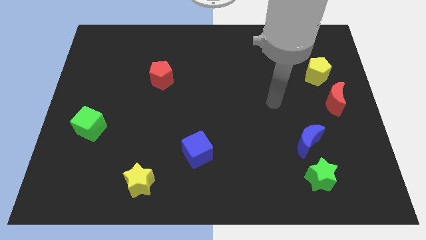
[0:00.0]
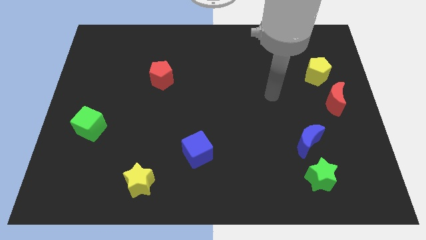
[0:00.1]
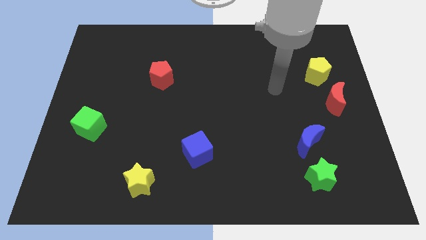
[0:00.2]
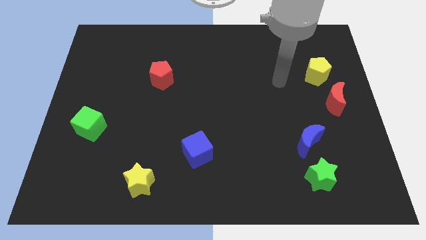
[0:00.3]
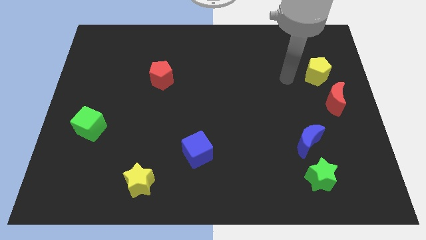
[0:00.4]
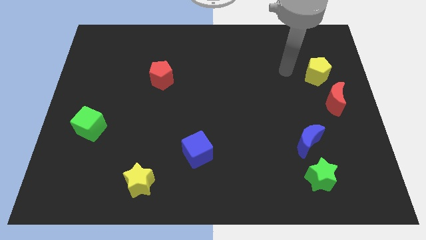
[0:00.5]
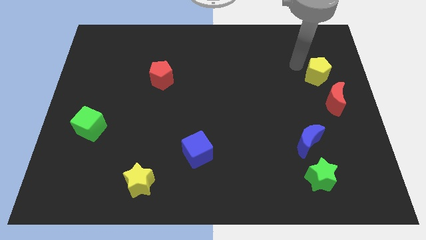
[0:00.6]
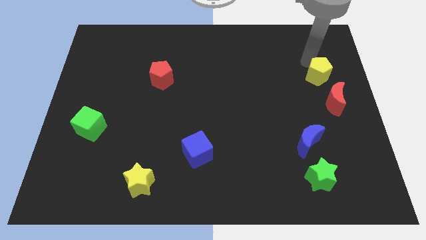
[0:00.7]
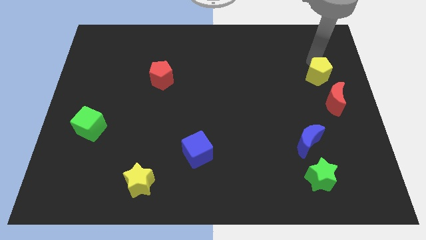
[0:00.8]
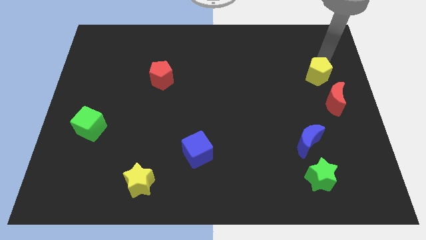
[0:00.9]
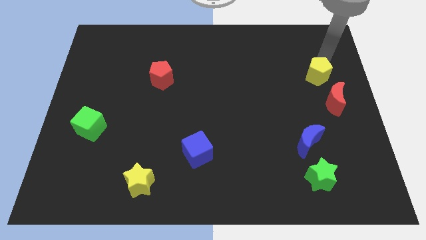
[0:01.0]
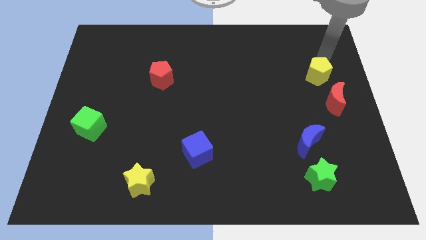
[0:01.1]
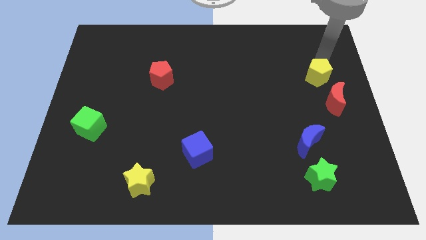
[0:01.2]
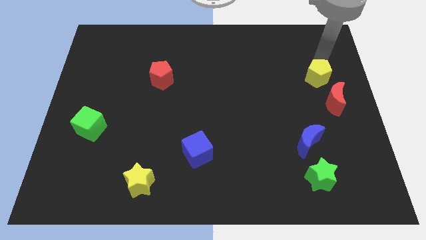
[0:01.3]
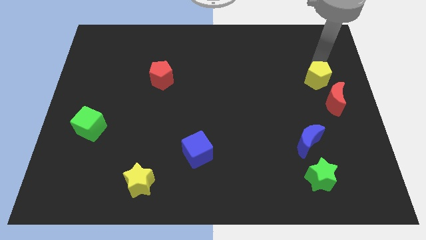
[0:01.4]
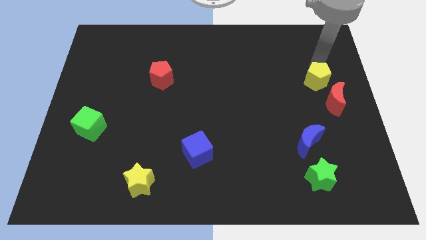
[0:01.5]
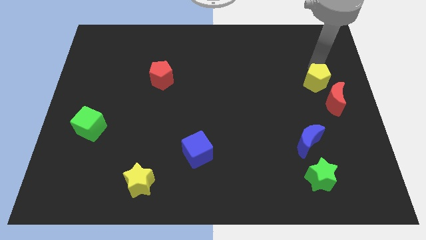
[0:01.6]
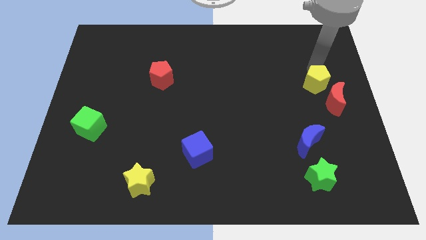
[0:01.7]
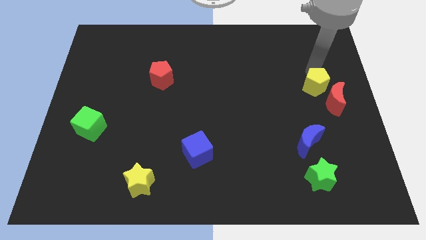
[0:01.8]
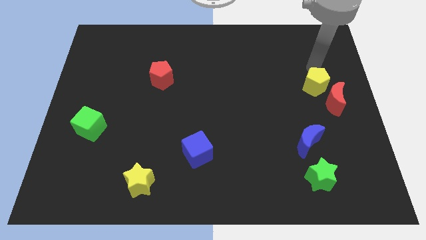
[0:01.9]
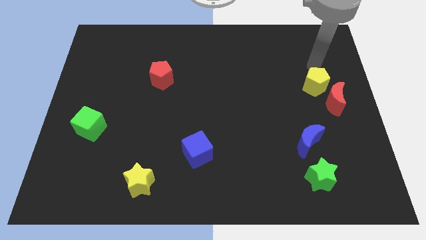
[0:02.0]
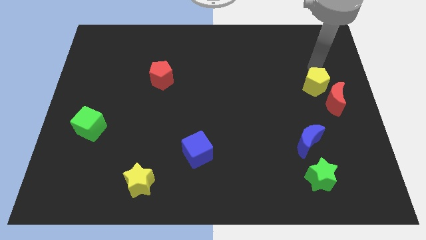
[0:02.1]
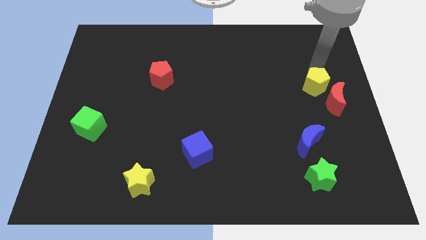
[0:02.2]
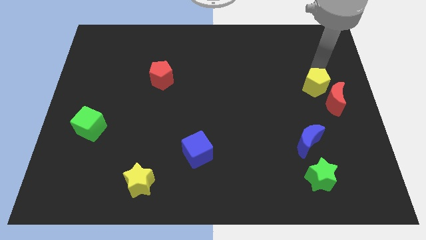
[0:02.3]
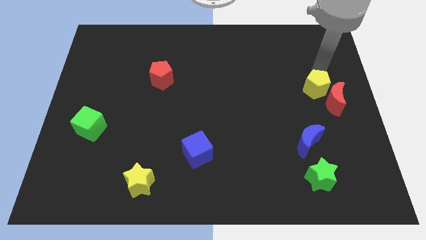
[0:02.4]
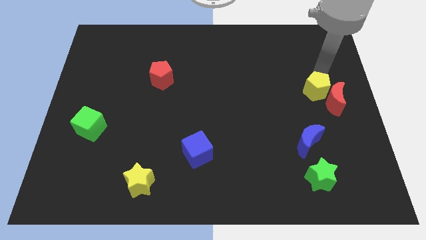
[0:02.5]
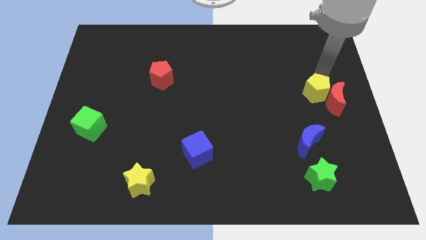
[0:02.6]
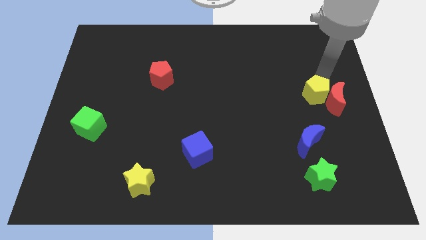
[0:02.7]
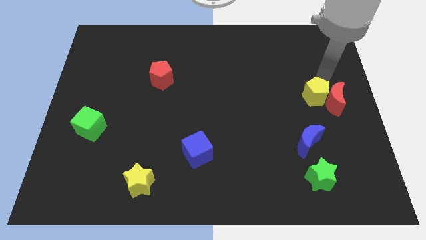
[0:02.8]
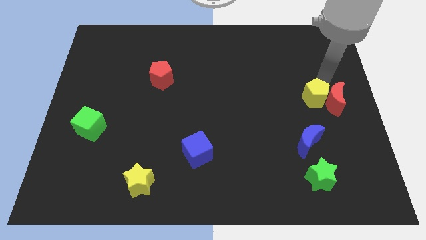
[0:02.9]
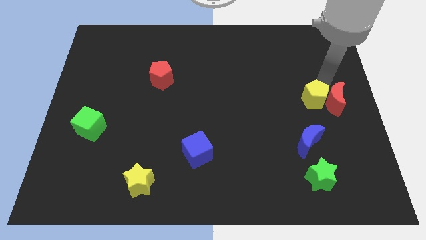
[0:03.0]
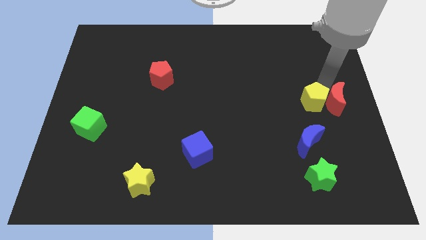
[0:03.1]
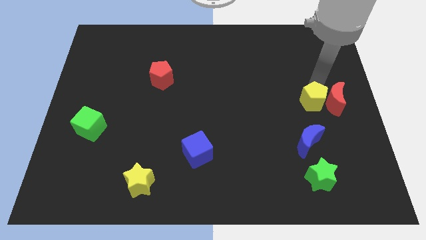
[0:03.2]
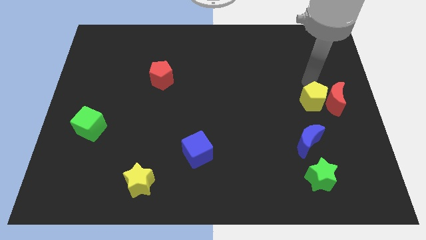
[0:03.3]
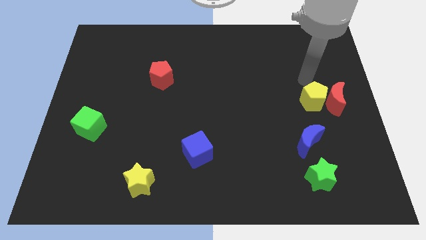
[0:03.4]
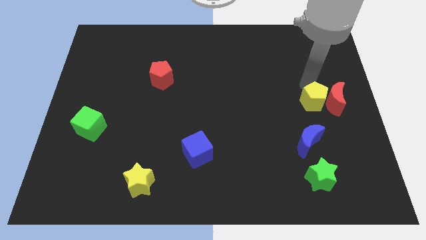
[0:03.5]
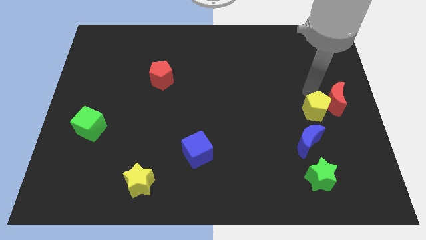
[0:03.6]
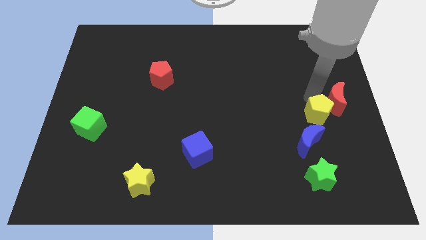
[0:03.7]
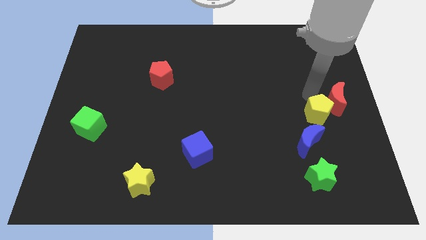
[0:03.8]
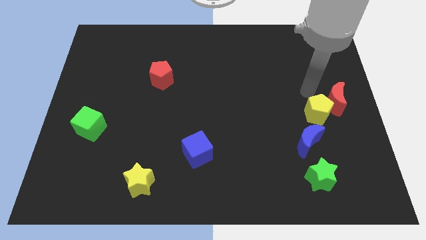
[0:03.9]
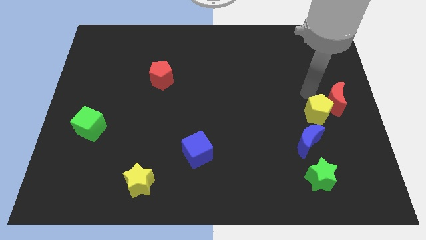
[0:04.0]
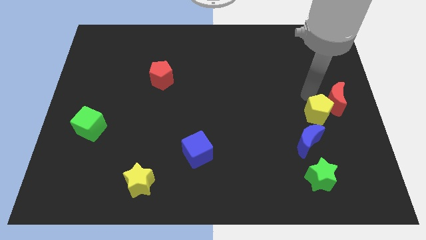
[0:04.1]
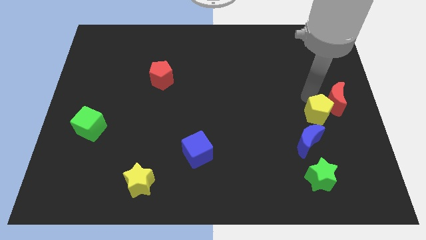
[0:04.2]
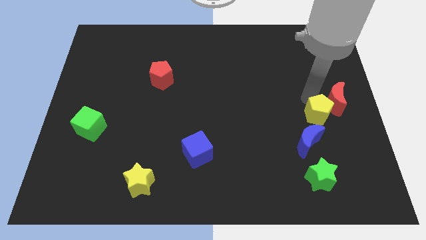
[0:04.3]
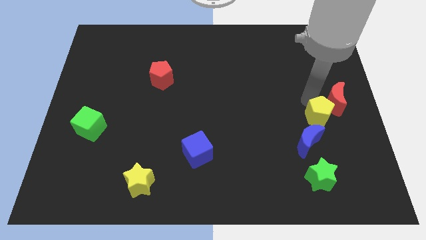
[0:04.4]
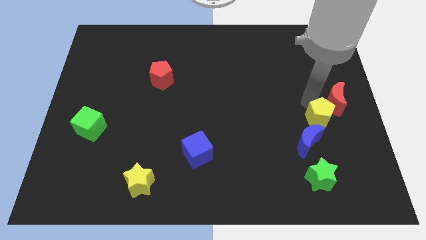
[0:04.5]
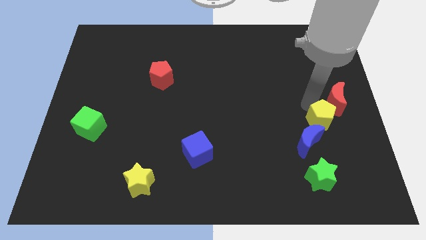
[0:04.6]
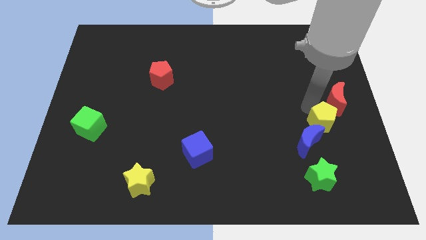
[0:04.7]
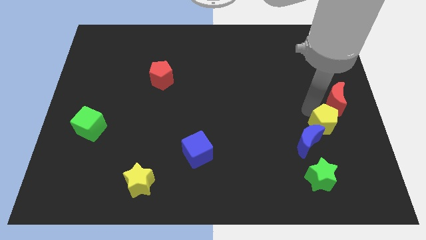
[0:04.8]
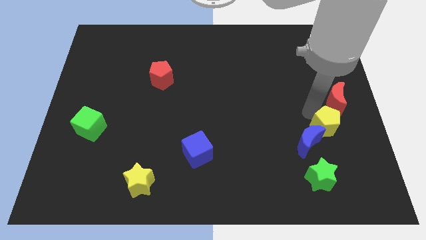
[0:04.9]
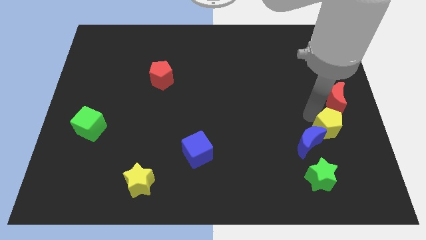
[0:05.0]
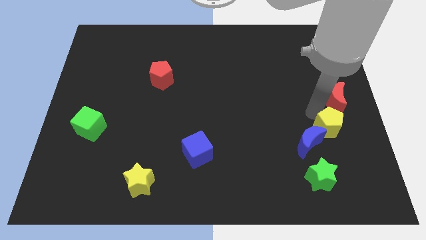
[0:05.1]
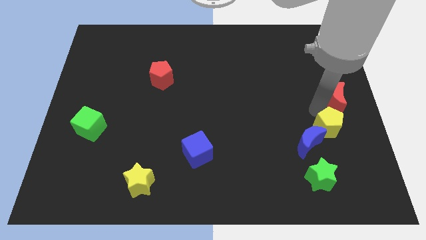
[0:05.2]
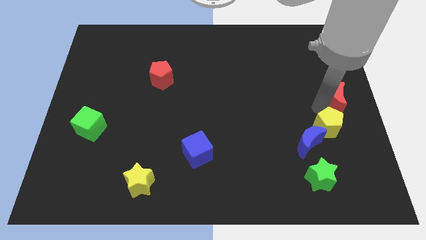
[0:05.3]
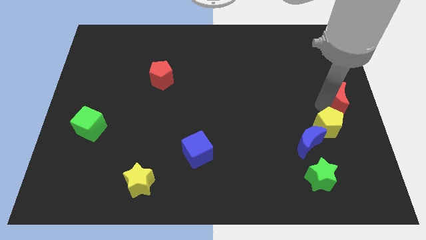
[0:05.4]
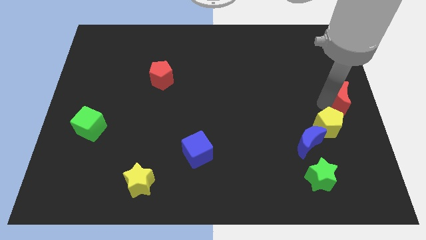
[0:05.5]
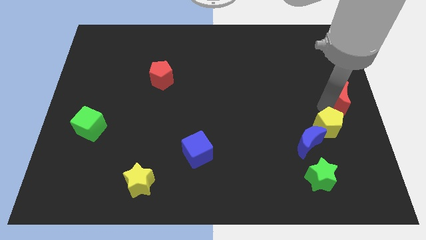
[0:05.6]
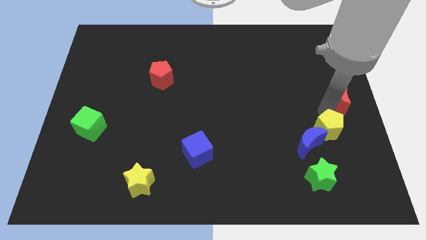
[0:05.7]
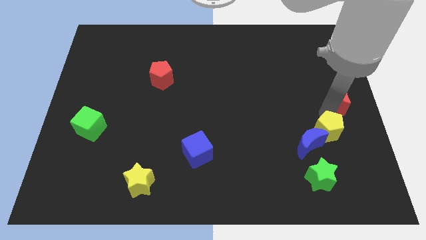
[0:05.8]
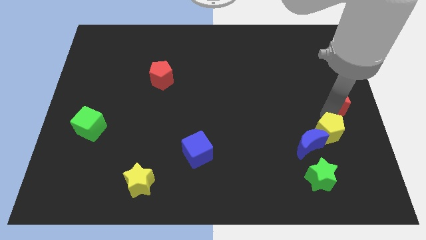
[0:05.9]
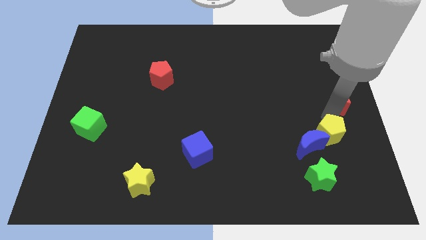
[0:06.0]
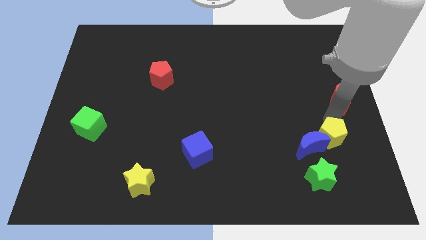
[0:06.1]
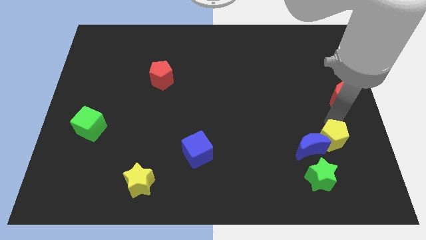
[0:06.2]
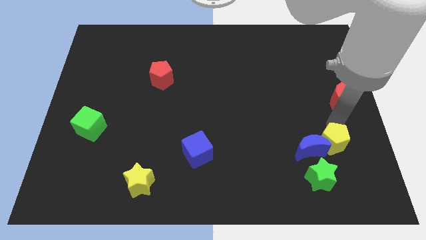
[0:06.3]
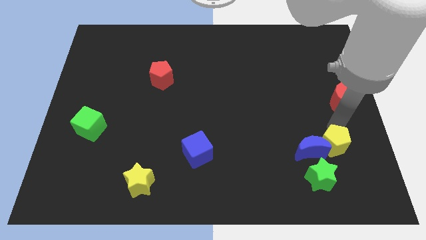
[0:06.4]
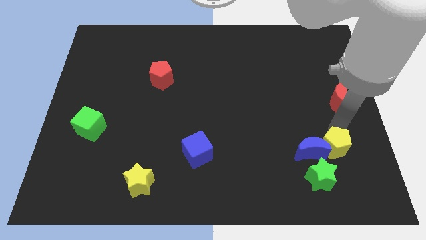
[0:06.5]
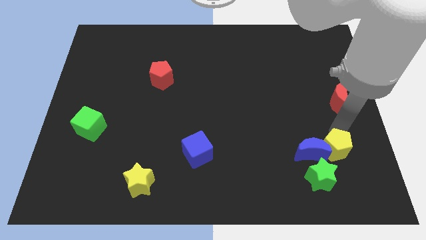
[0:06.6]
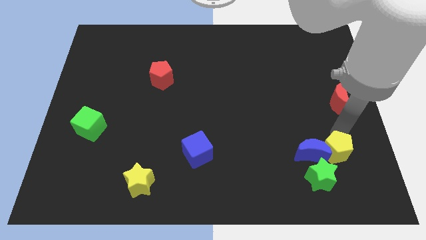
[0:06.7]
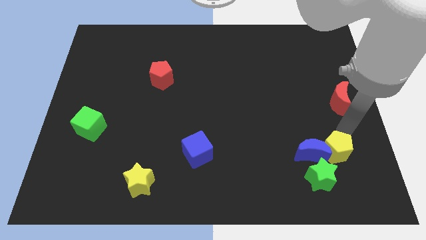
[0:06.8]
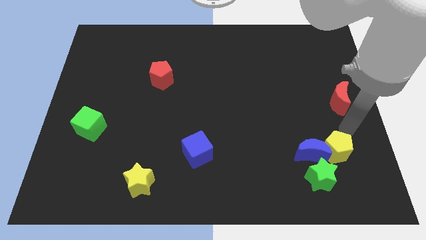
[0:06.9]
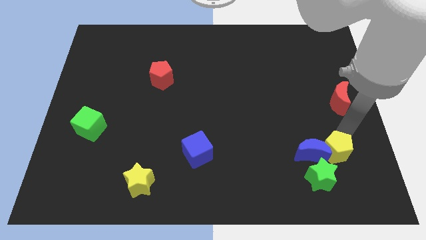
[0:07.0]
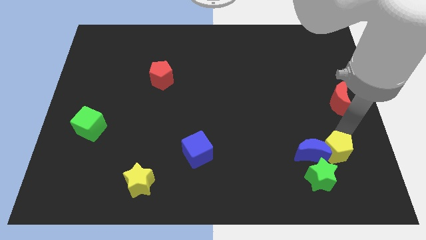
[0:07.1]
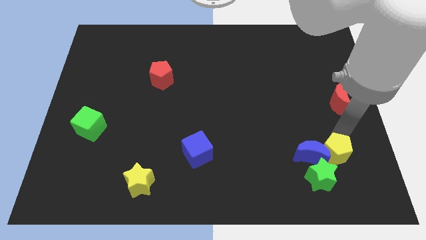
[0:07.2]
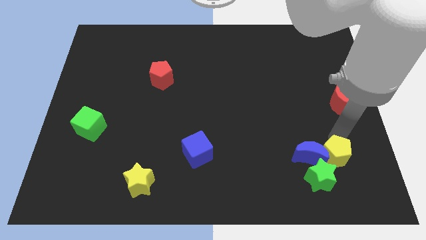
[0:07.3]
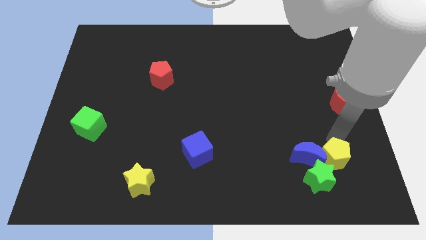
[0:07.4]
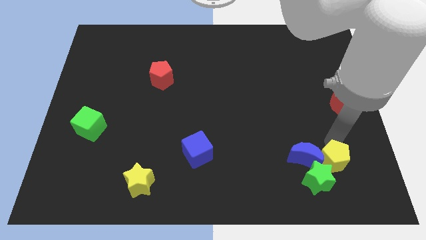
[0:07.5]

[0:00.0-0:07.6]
put the yellow pentagon next to the green star
